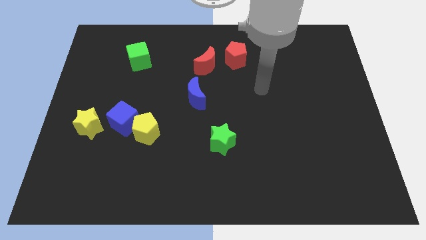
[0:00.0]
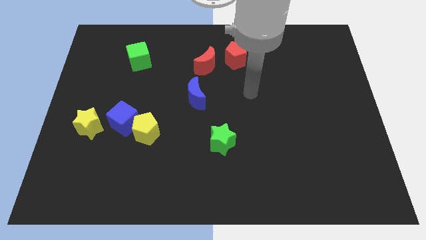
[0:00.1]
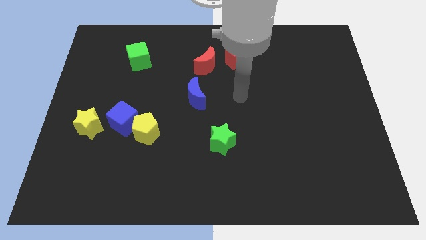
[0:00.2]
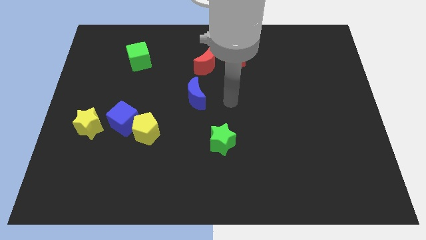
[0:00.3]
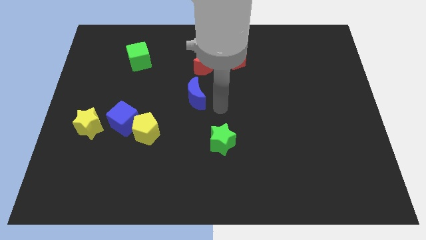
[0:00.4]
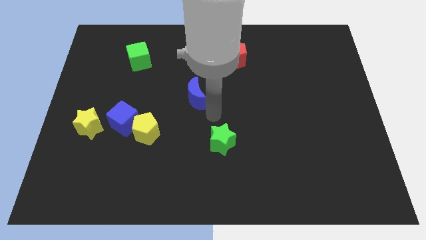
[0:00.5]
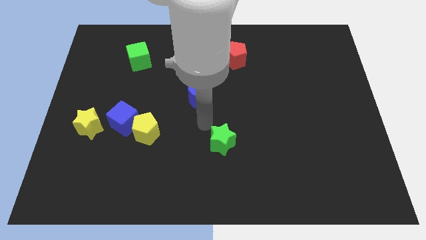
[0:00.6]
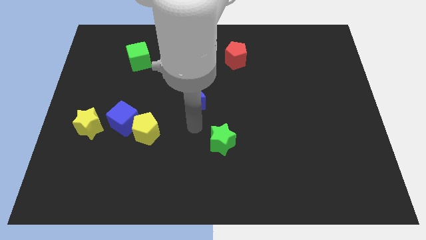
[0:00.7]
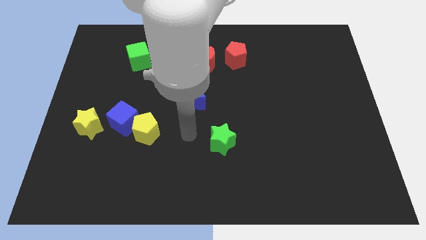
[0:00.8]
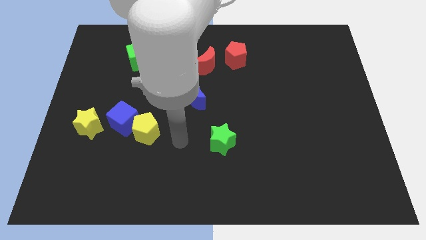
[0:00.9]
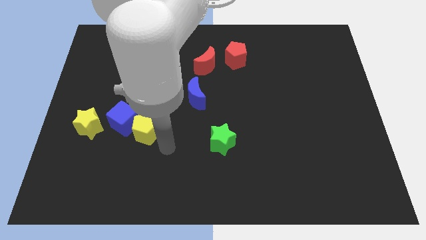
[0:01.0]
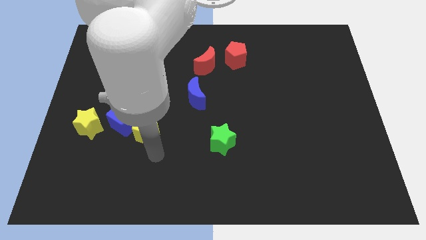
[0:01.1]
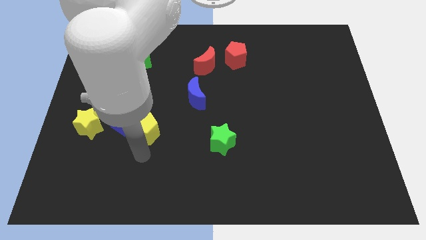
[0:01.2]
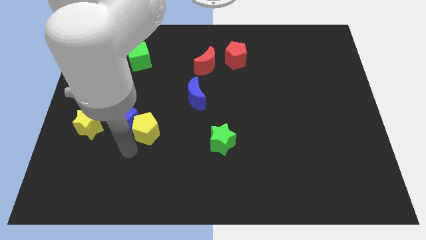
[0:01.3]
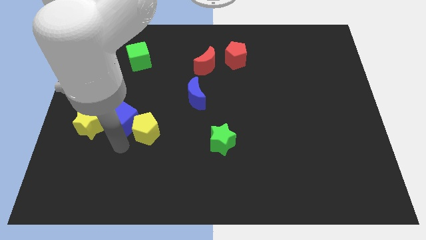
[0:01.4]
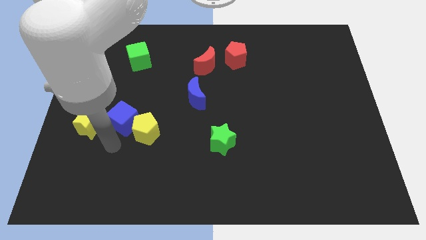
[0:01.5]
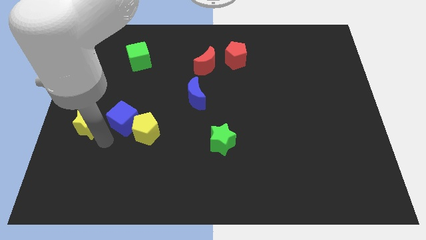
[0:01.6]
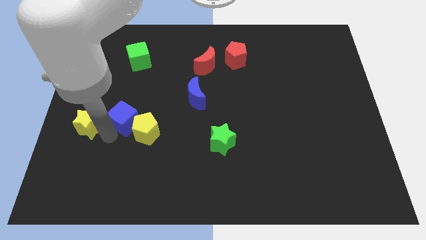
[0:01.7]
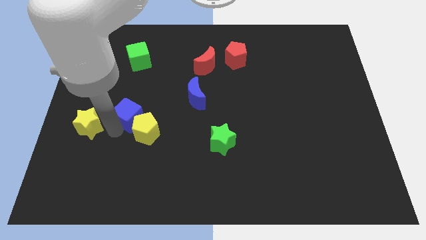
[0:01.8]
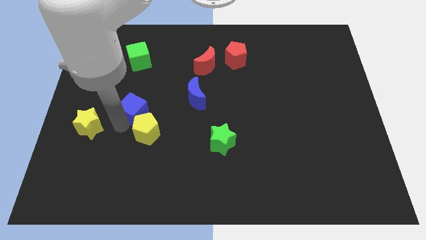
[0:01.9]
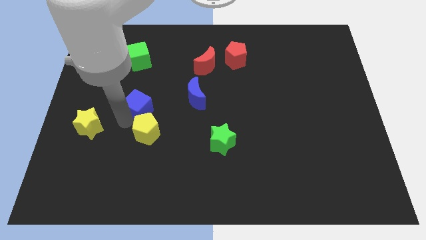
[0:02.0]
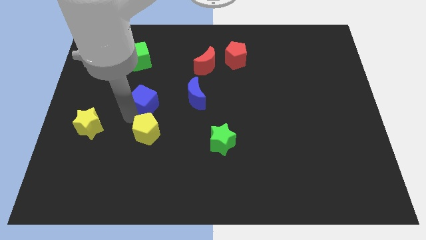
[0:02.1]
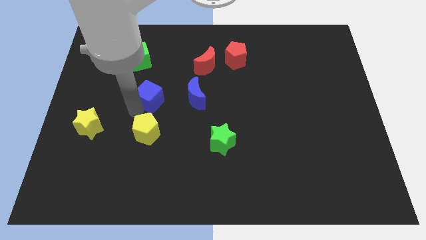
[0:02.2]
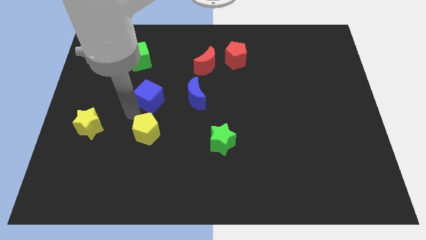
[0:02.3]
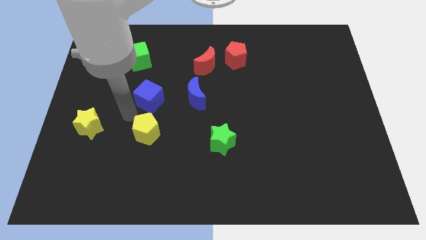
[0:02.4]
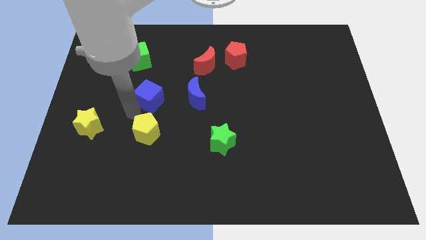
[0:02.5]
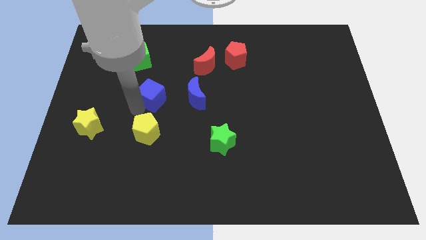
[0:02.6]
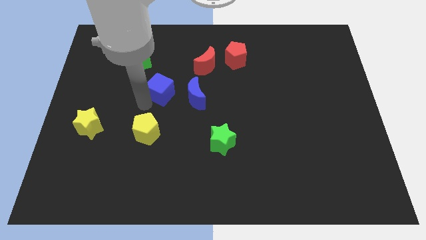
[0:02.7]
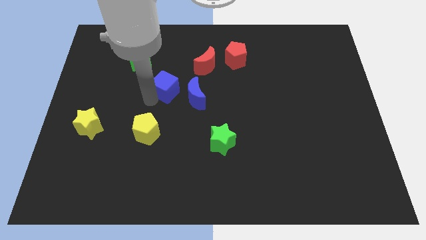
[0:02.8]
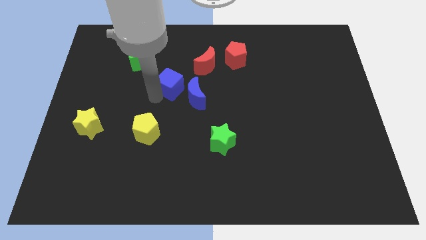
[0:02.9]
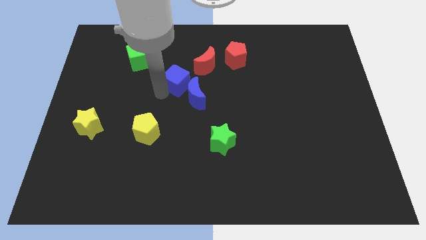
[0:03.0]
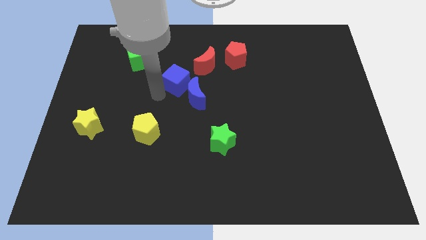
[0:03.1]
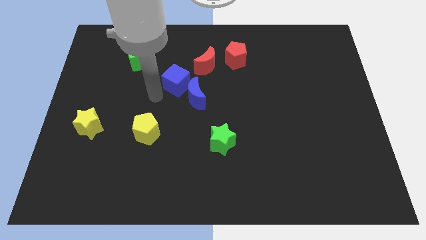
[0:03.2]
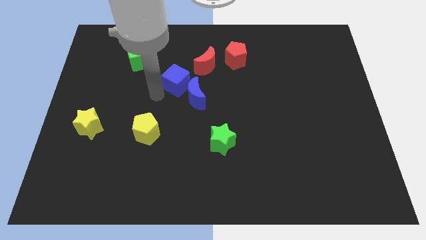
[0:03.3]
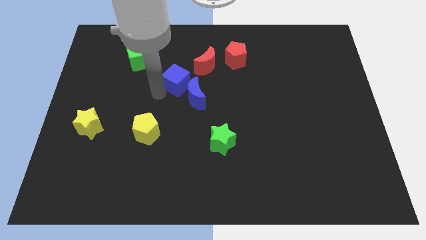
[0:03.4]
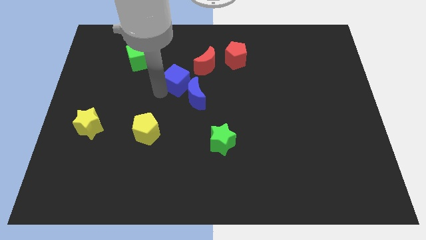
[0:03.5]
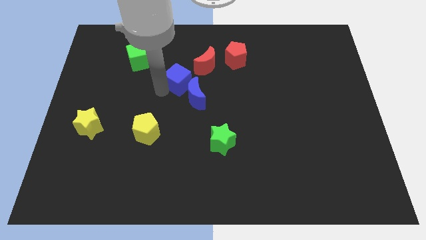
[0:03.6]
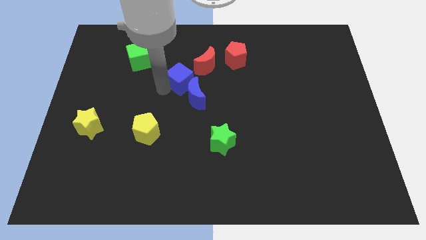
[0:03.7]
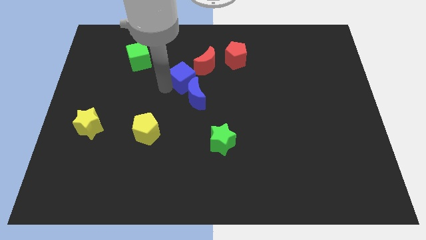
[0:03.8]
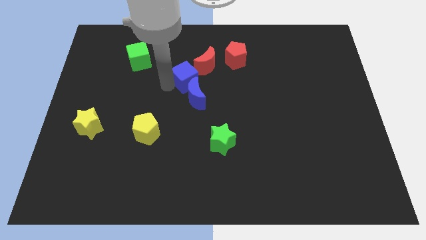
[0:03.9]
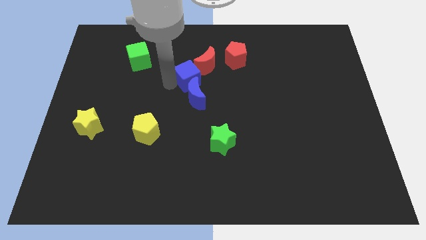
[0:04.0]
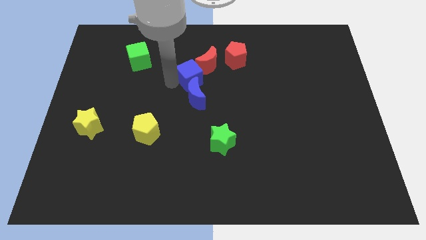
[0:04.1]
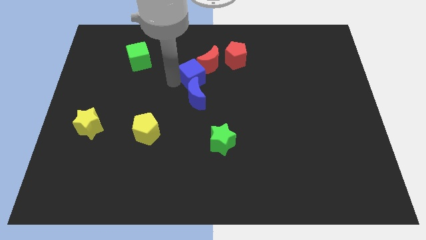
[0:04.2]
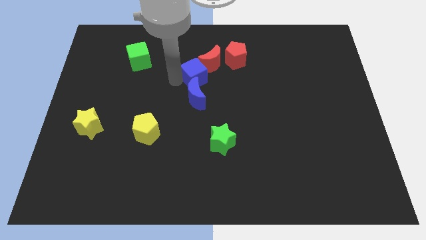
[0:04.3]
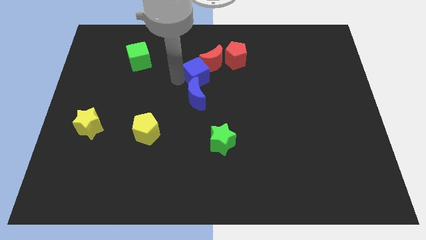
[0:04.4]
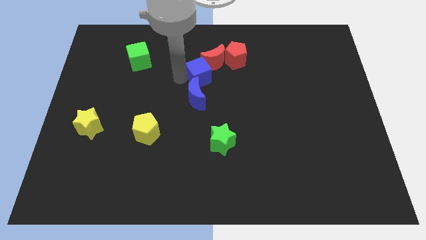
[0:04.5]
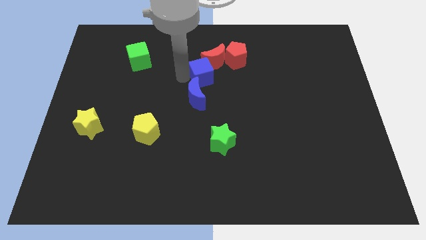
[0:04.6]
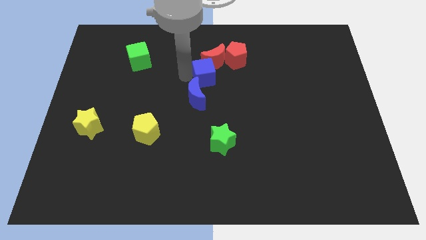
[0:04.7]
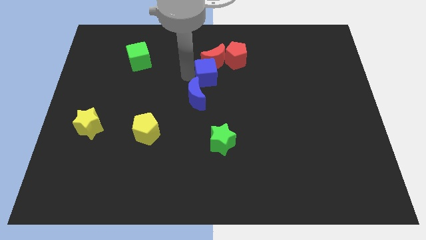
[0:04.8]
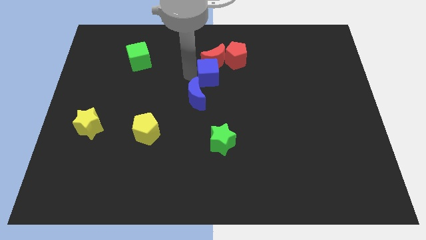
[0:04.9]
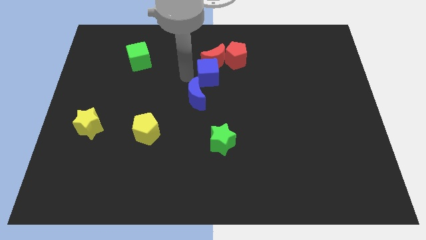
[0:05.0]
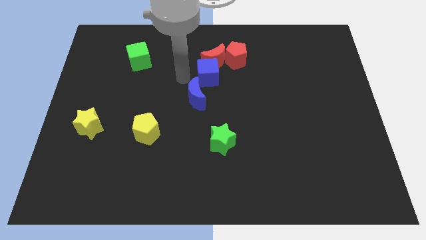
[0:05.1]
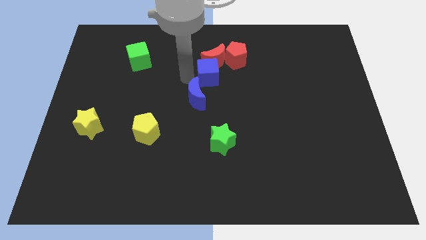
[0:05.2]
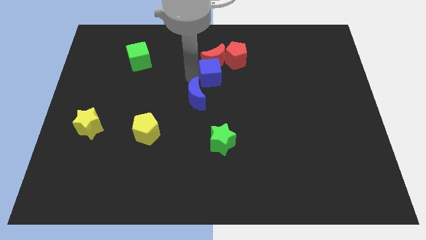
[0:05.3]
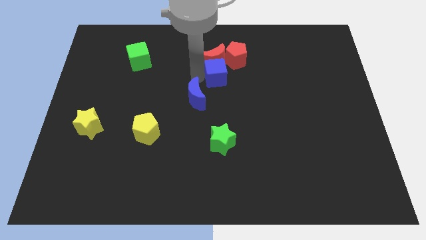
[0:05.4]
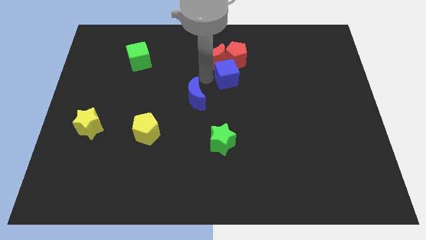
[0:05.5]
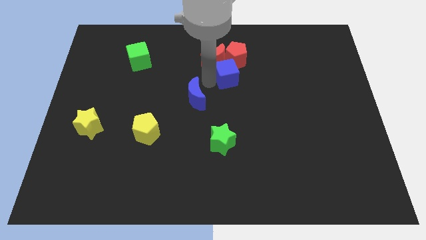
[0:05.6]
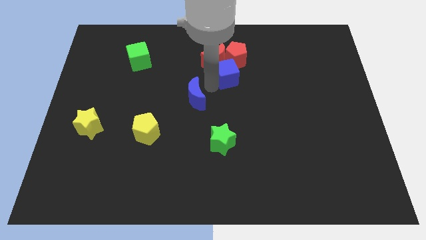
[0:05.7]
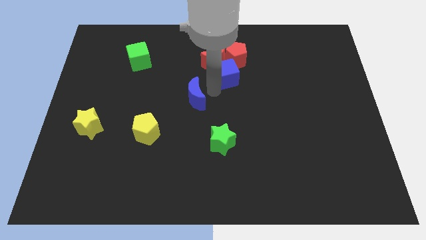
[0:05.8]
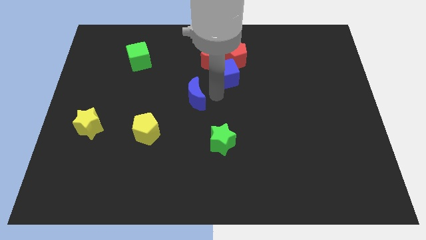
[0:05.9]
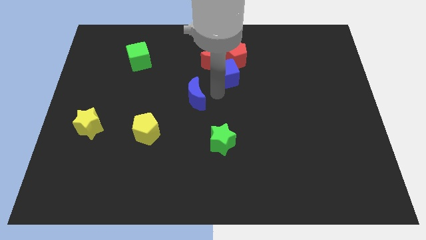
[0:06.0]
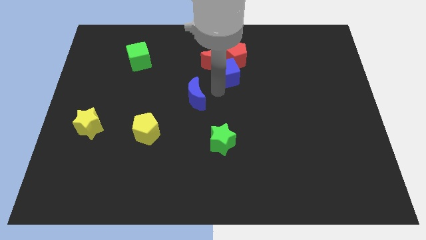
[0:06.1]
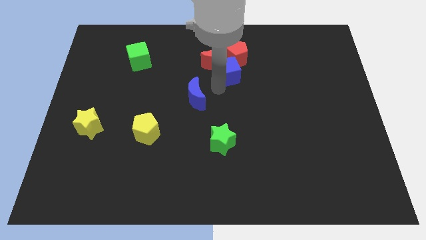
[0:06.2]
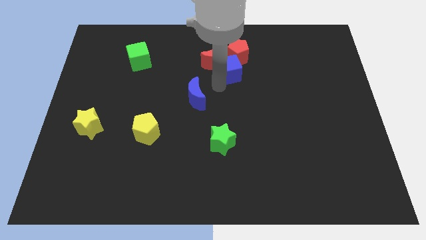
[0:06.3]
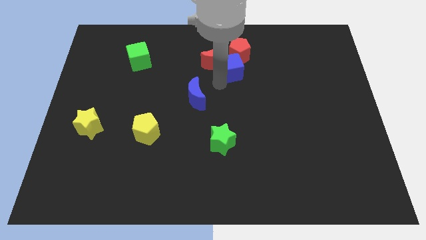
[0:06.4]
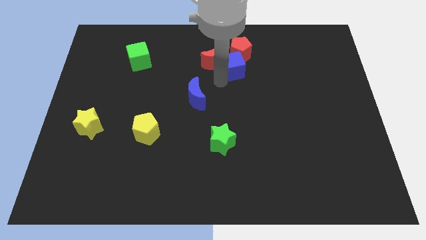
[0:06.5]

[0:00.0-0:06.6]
put the blue cube close to the red pentagon
